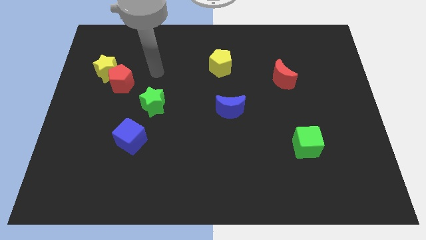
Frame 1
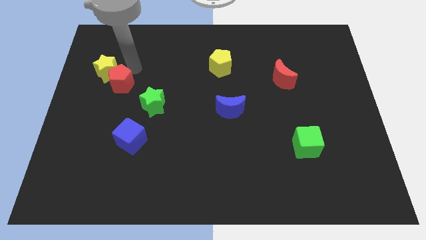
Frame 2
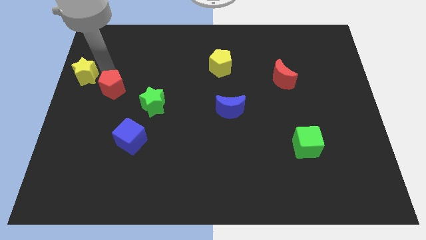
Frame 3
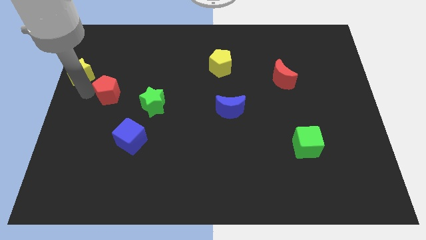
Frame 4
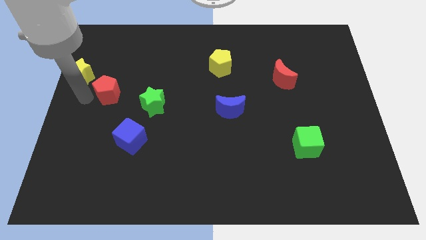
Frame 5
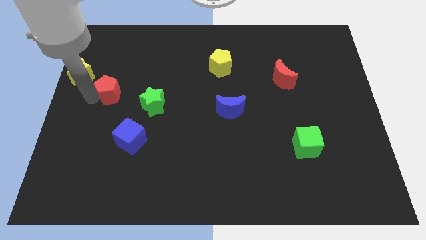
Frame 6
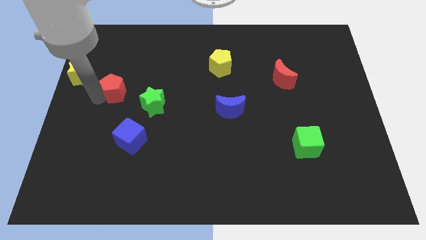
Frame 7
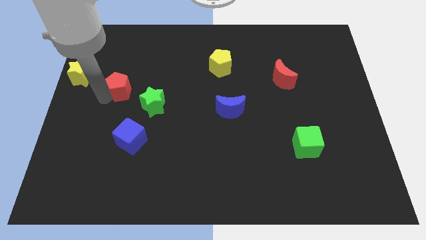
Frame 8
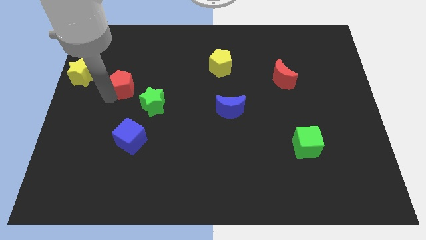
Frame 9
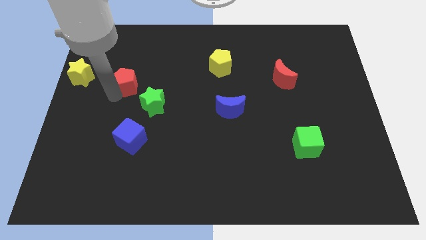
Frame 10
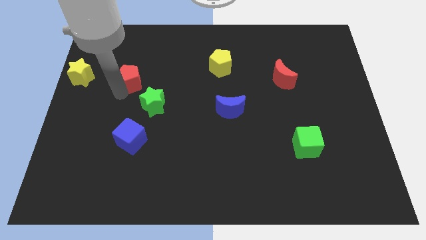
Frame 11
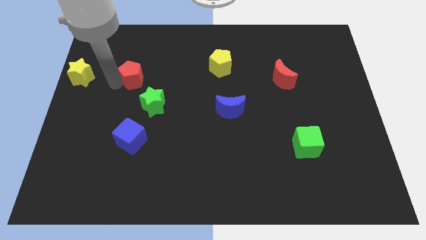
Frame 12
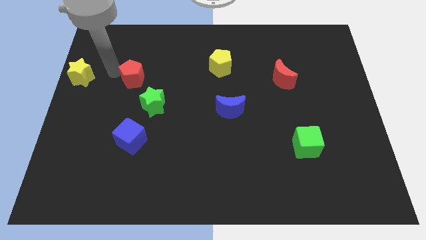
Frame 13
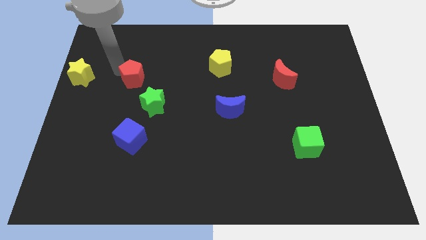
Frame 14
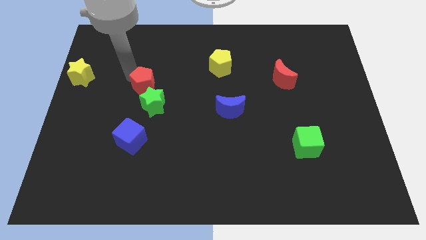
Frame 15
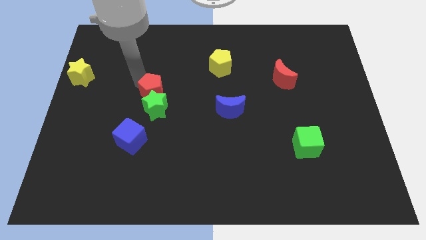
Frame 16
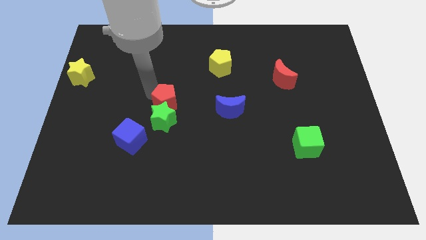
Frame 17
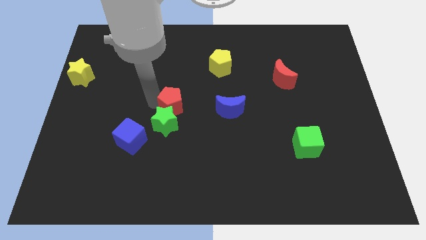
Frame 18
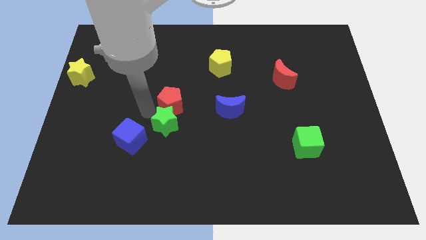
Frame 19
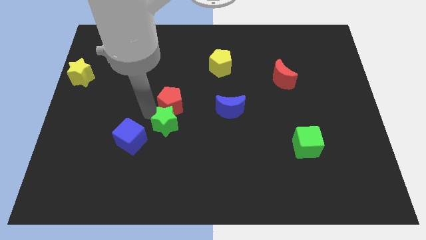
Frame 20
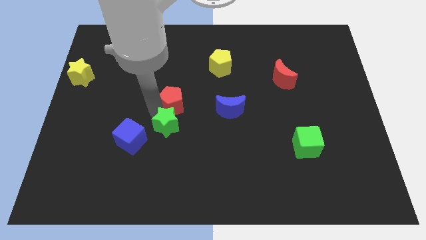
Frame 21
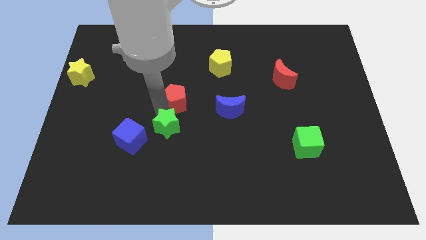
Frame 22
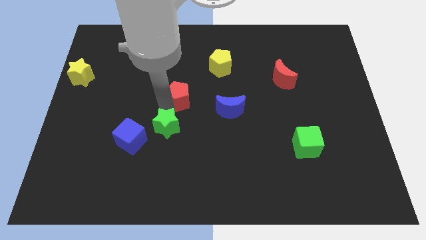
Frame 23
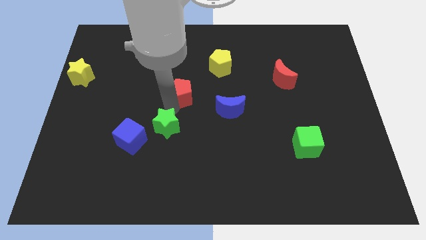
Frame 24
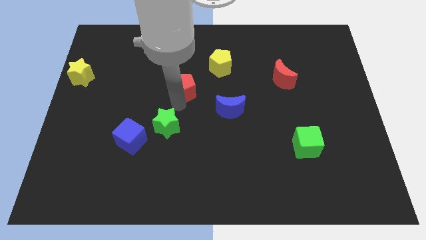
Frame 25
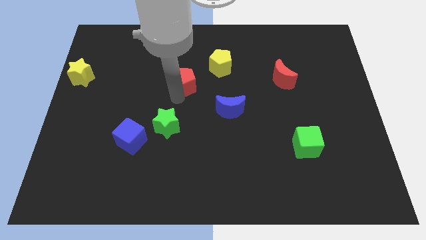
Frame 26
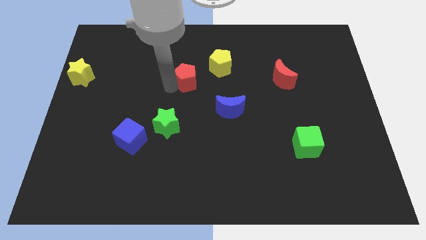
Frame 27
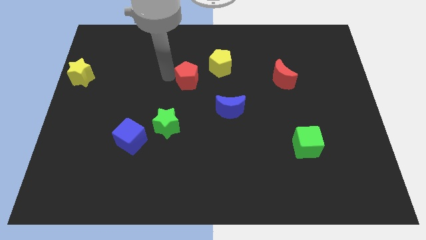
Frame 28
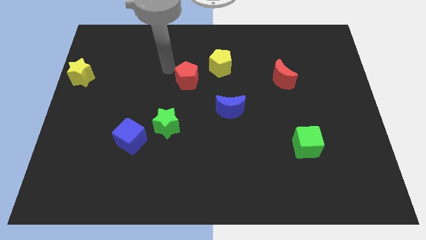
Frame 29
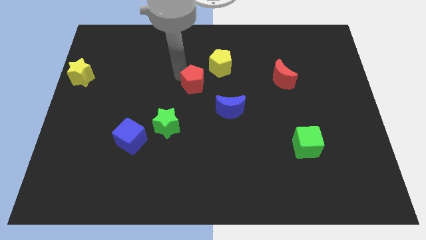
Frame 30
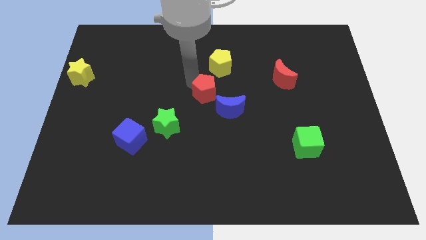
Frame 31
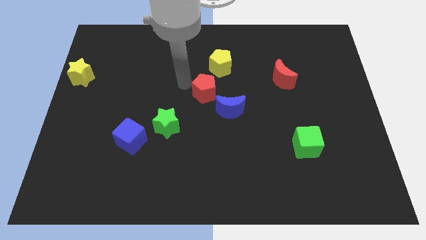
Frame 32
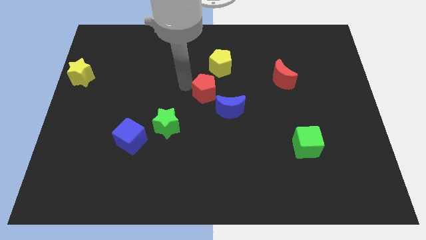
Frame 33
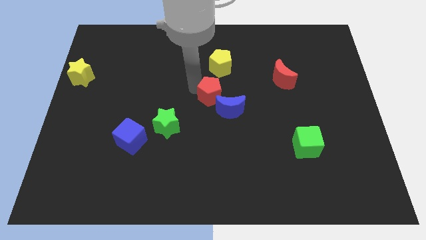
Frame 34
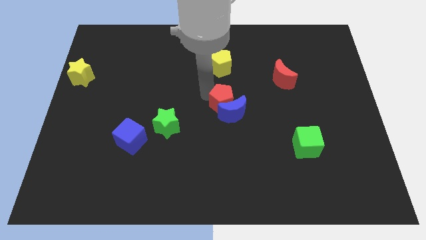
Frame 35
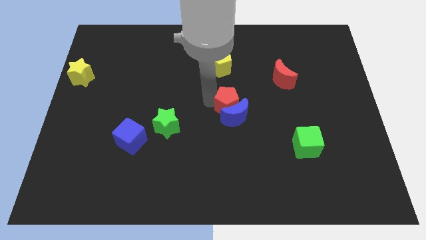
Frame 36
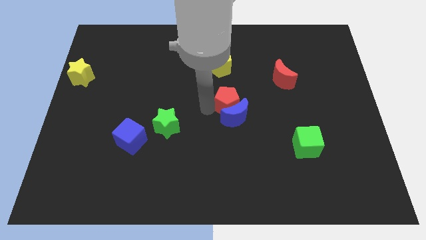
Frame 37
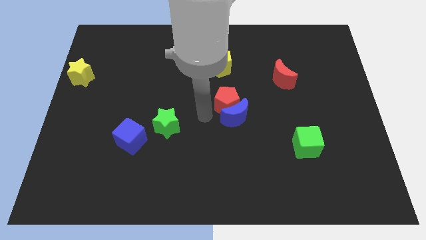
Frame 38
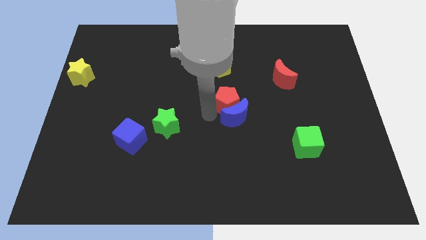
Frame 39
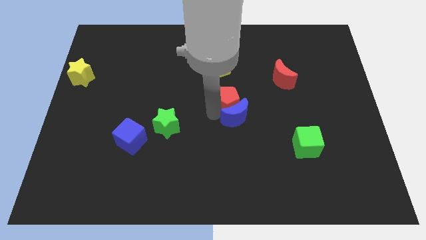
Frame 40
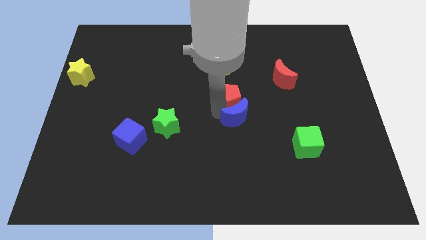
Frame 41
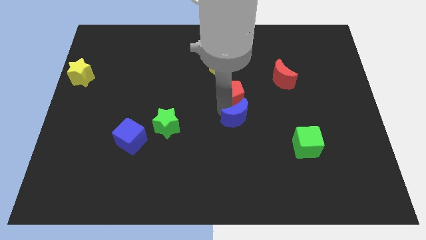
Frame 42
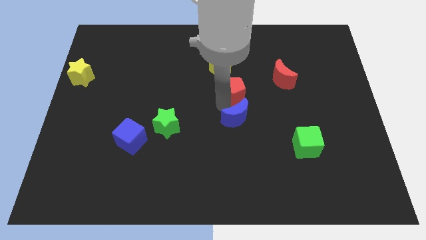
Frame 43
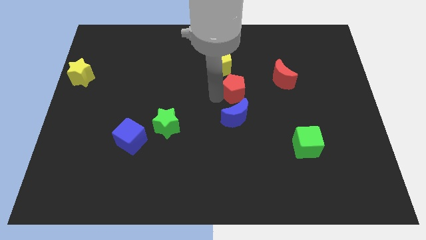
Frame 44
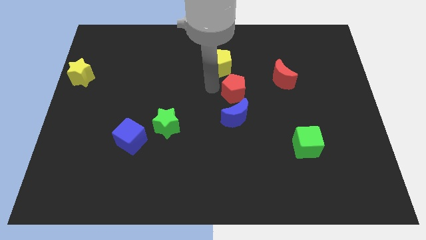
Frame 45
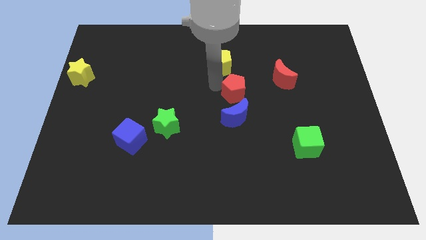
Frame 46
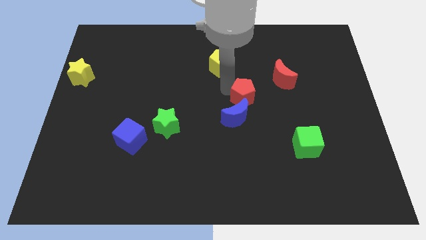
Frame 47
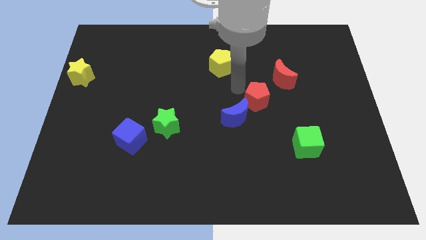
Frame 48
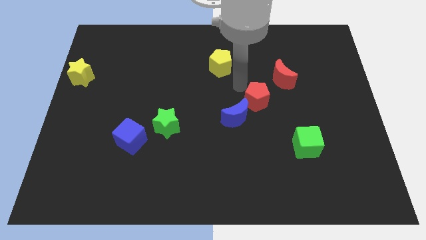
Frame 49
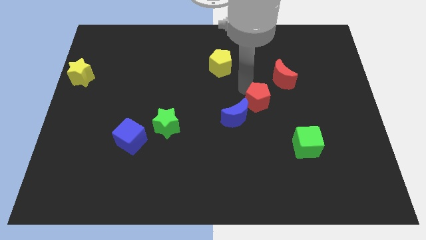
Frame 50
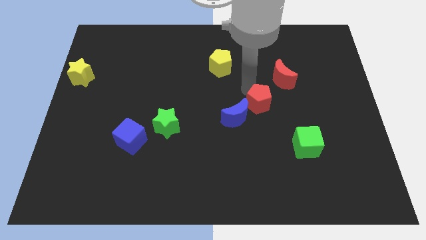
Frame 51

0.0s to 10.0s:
slide the red pentagon right of the blue moon

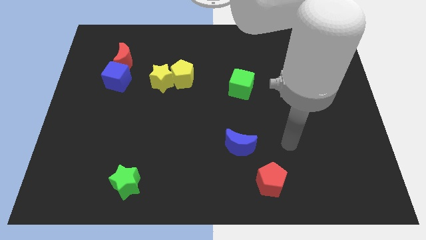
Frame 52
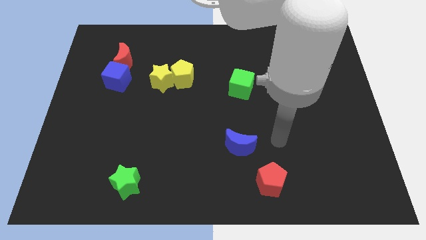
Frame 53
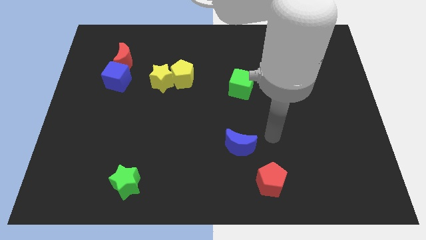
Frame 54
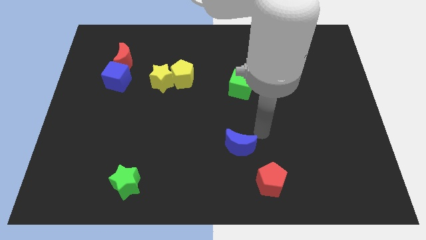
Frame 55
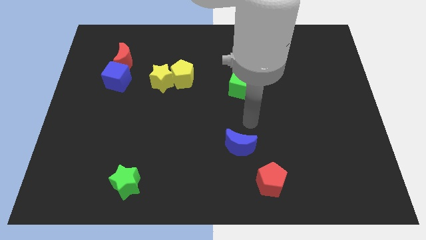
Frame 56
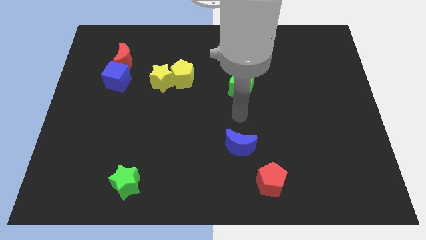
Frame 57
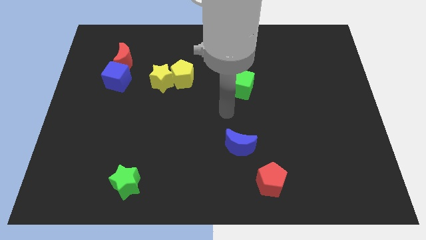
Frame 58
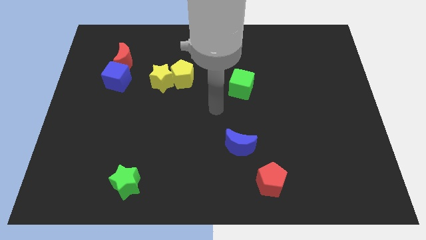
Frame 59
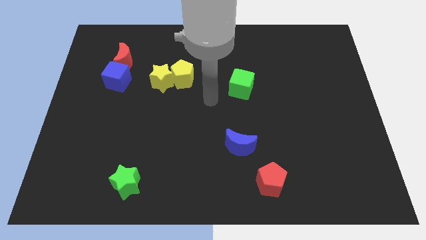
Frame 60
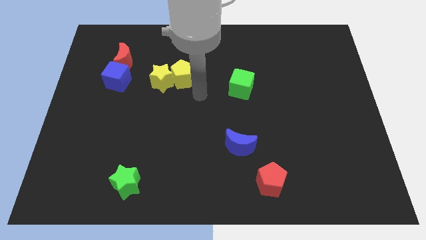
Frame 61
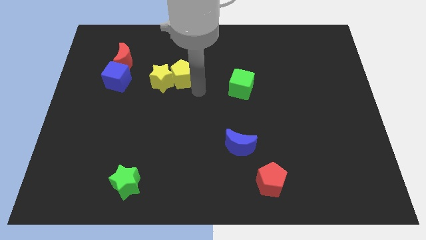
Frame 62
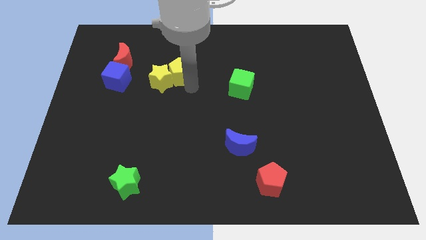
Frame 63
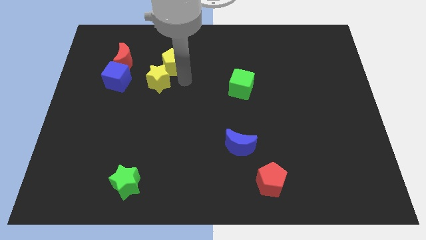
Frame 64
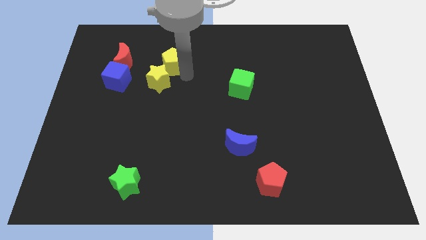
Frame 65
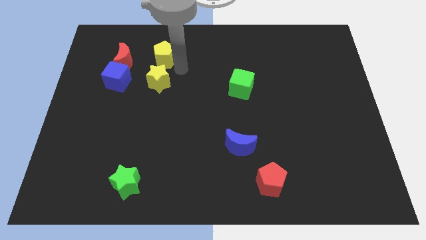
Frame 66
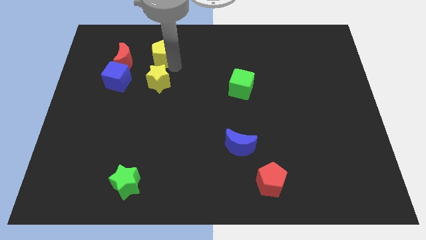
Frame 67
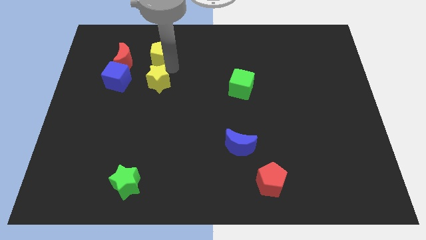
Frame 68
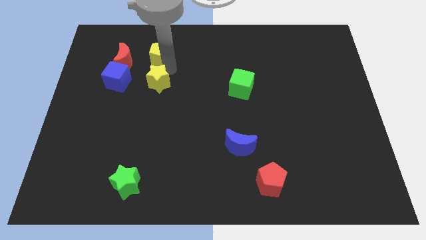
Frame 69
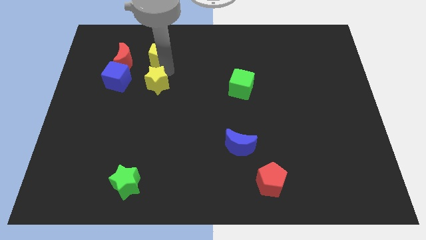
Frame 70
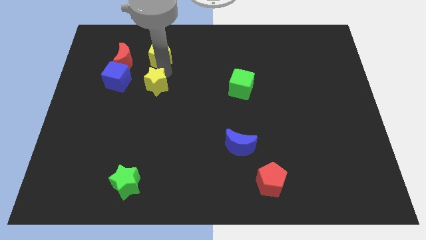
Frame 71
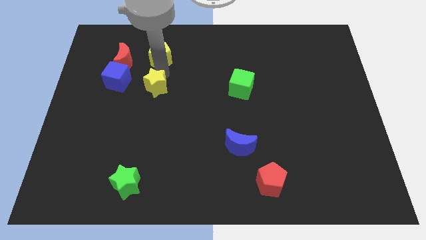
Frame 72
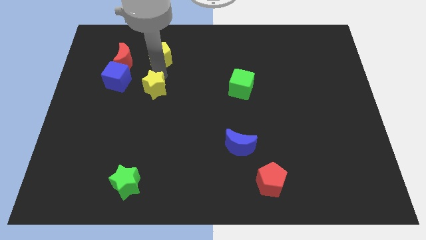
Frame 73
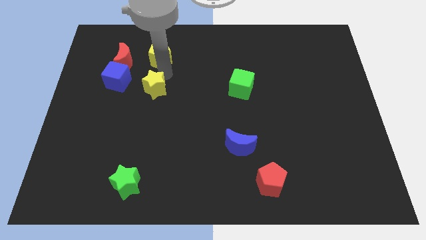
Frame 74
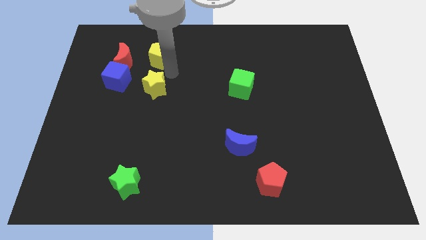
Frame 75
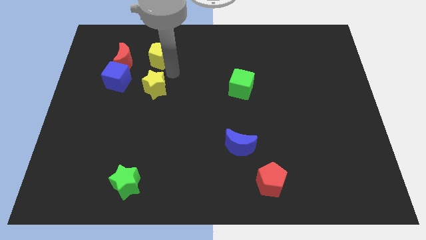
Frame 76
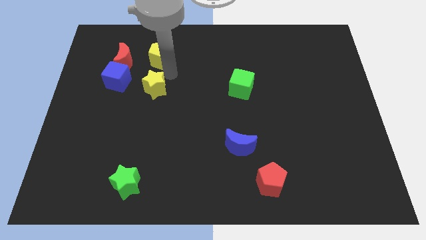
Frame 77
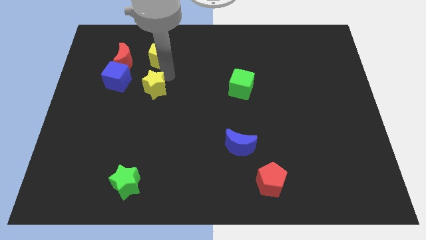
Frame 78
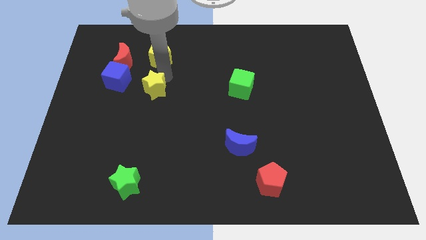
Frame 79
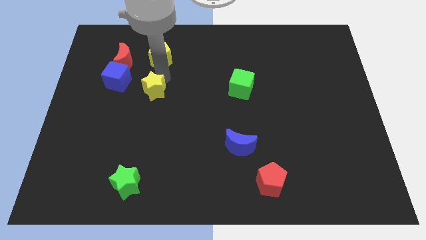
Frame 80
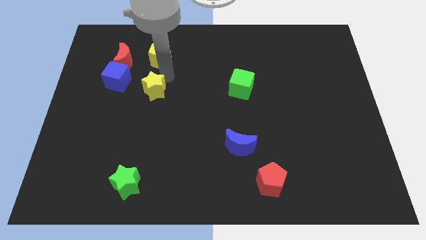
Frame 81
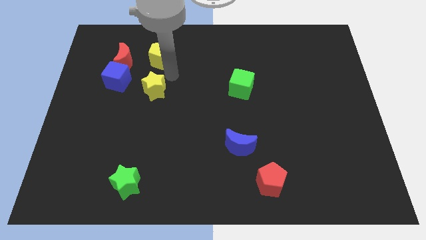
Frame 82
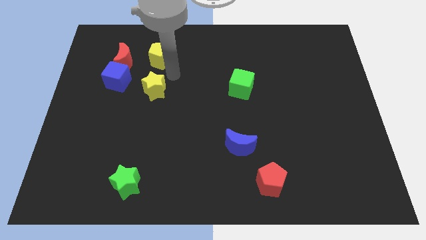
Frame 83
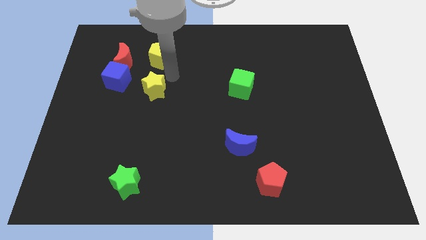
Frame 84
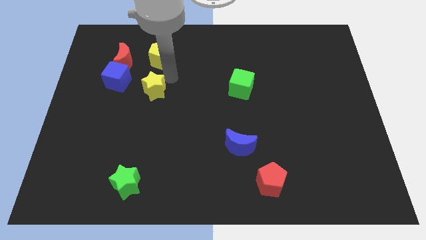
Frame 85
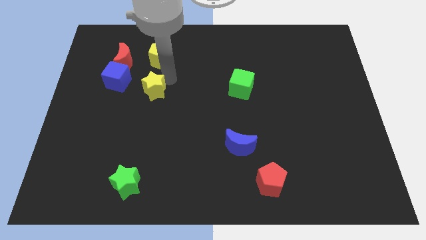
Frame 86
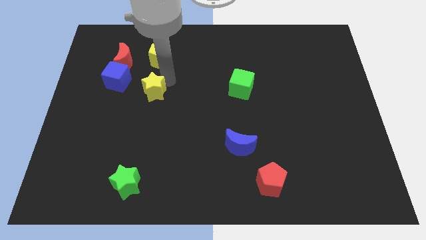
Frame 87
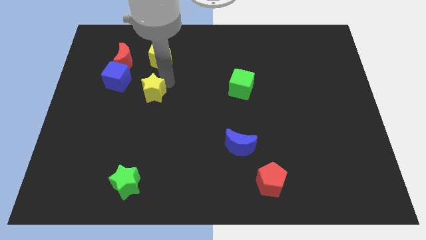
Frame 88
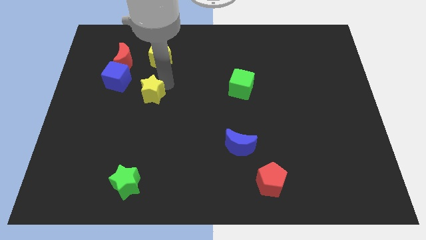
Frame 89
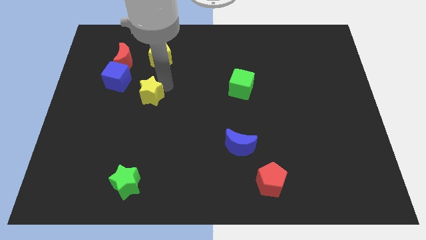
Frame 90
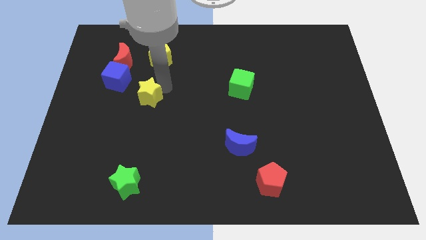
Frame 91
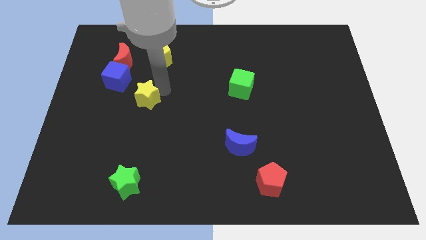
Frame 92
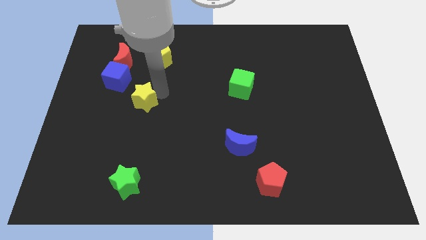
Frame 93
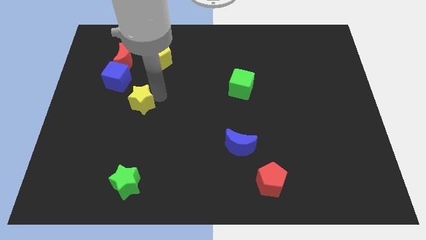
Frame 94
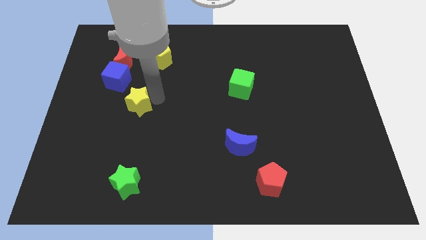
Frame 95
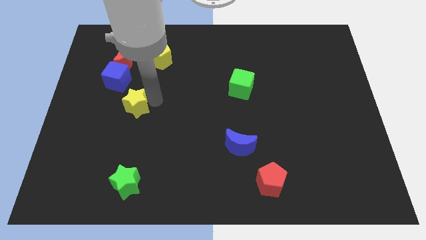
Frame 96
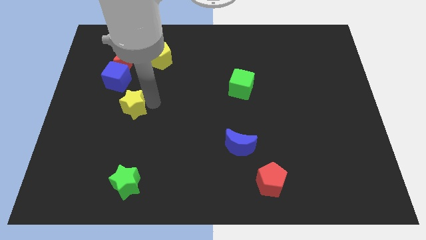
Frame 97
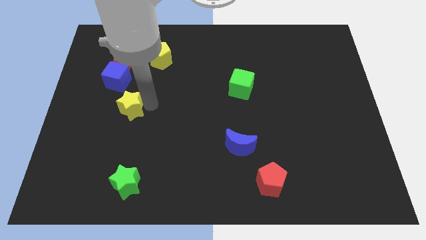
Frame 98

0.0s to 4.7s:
push the yellow star to the bottom side of the blue cube
